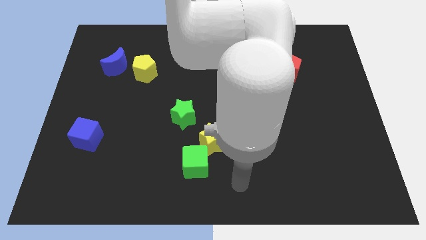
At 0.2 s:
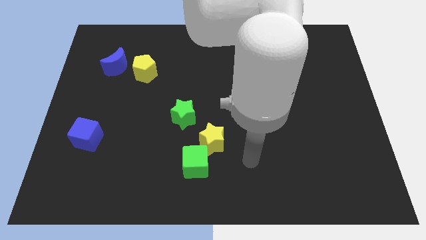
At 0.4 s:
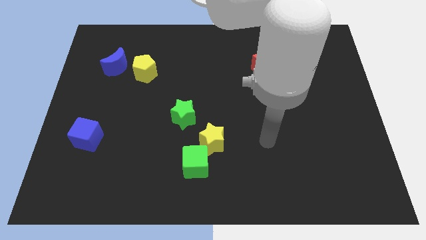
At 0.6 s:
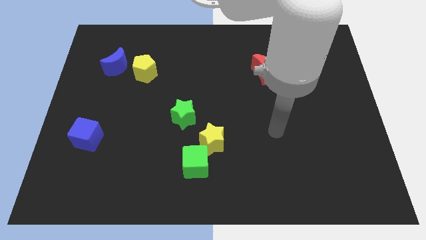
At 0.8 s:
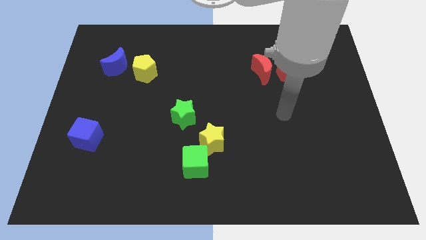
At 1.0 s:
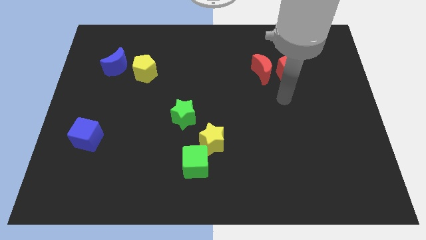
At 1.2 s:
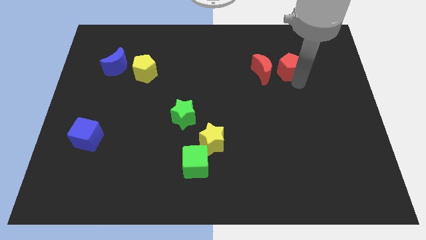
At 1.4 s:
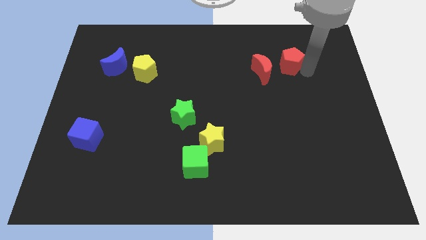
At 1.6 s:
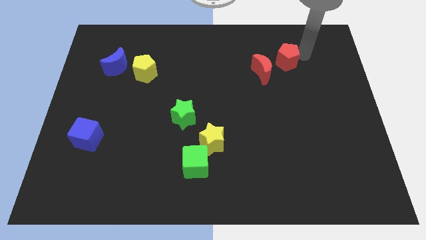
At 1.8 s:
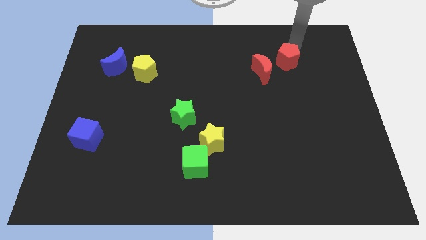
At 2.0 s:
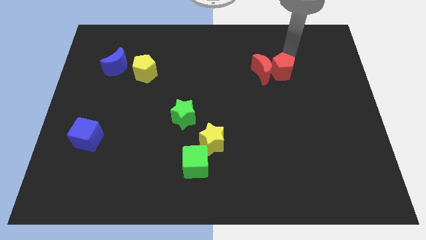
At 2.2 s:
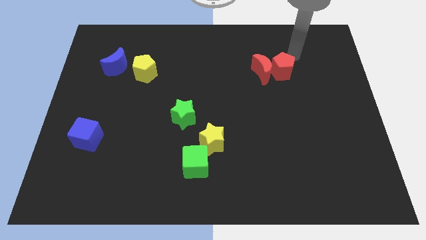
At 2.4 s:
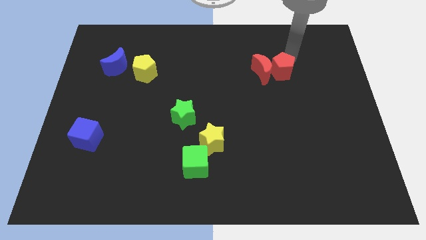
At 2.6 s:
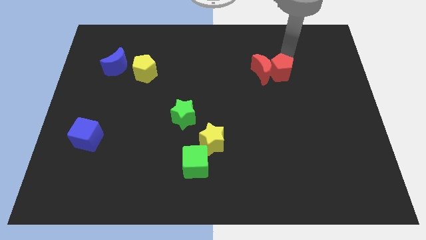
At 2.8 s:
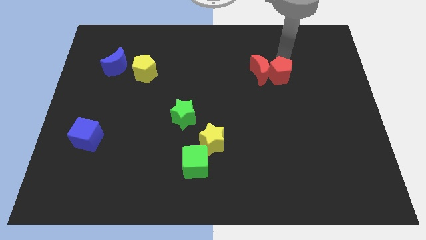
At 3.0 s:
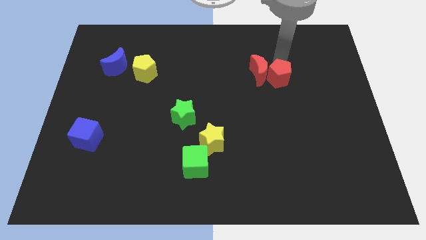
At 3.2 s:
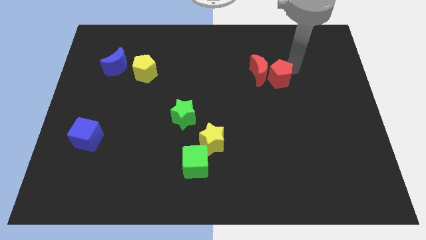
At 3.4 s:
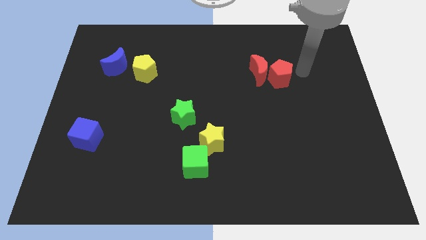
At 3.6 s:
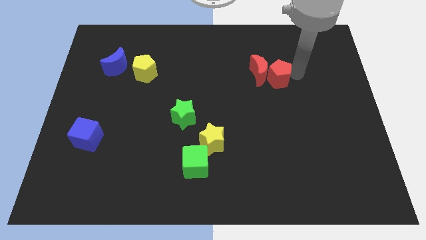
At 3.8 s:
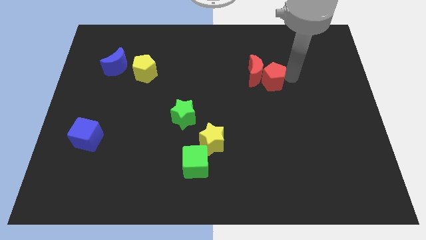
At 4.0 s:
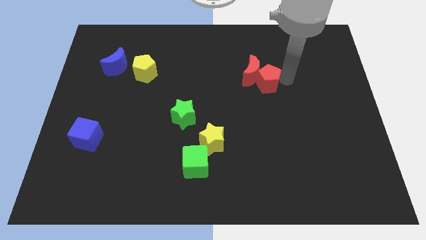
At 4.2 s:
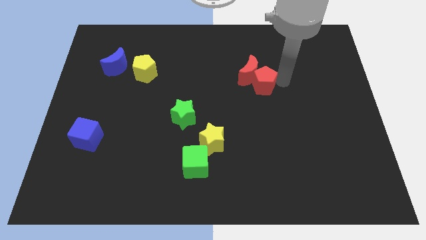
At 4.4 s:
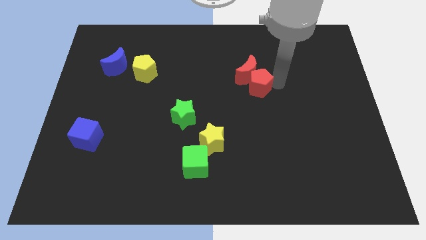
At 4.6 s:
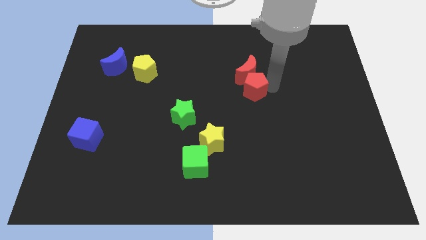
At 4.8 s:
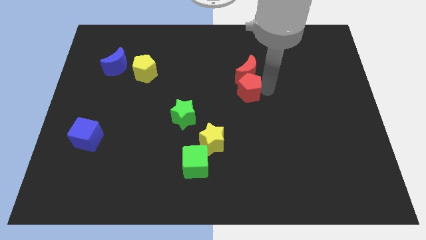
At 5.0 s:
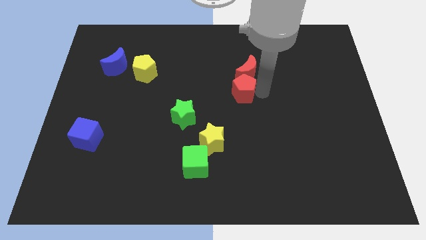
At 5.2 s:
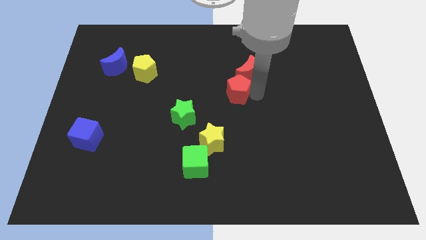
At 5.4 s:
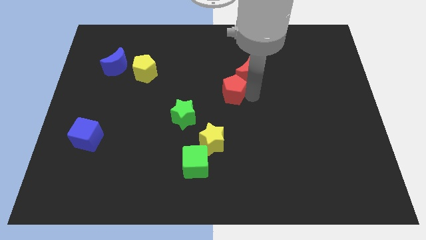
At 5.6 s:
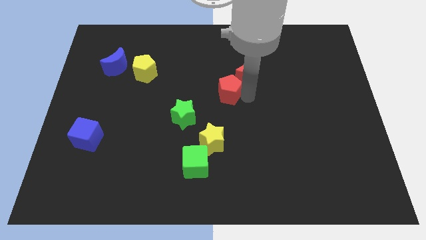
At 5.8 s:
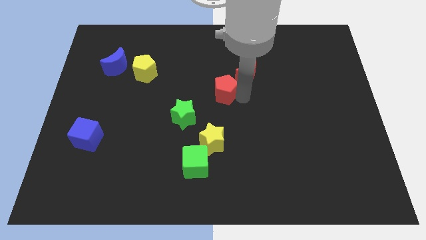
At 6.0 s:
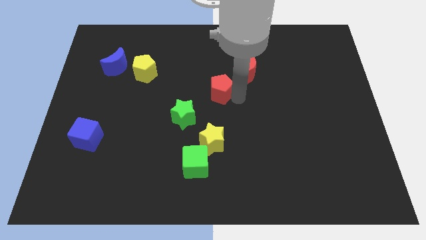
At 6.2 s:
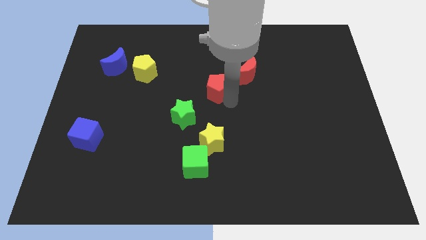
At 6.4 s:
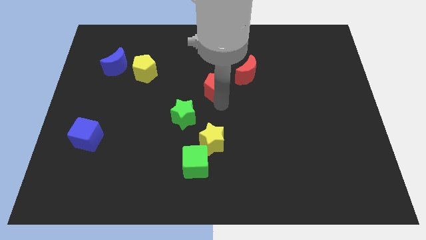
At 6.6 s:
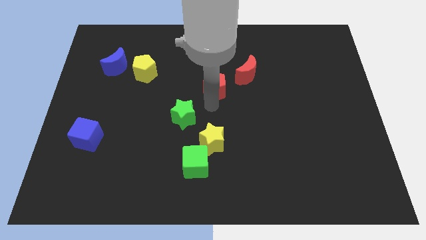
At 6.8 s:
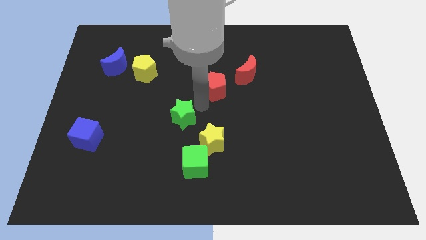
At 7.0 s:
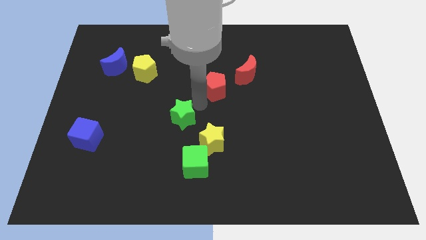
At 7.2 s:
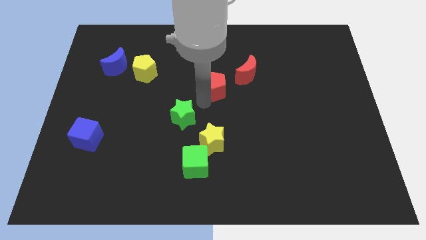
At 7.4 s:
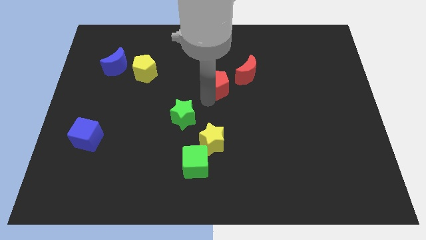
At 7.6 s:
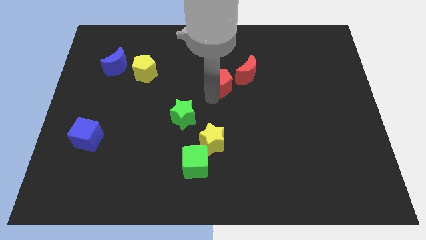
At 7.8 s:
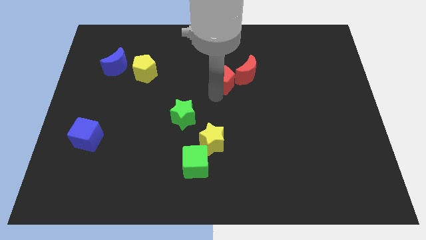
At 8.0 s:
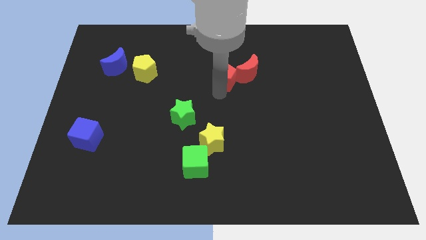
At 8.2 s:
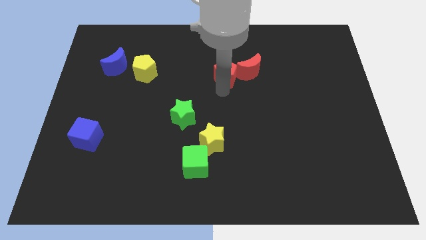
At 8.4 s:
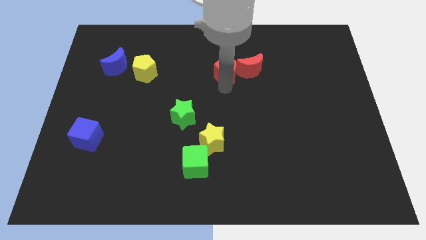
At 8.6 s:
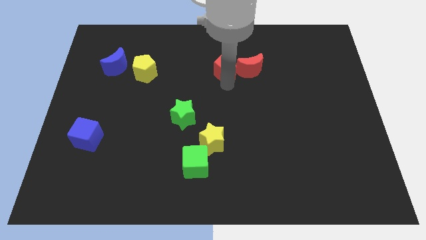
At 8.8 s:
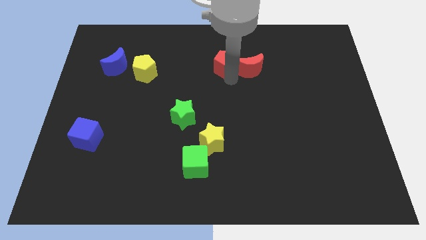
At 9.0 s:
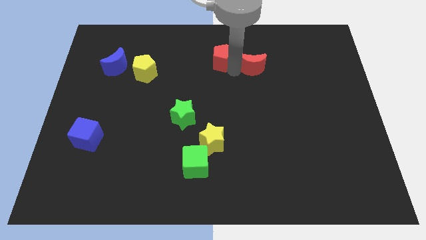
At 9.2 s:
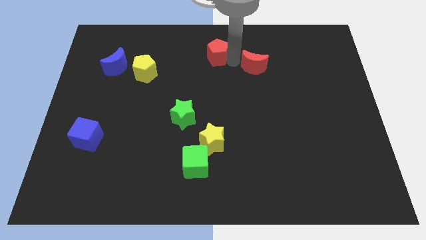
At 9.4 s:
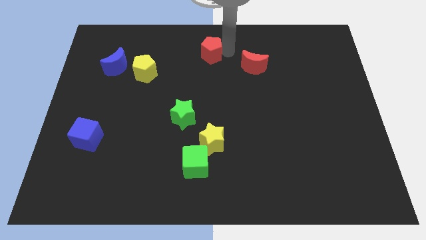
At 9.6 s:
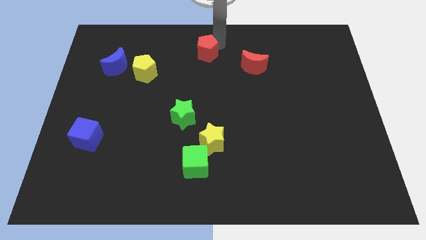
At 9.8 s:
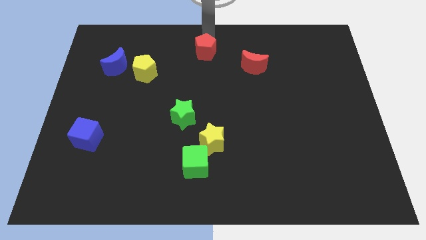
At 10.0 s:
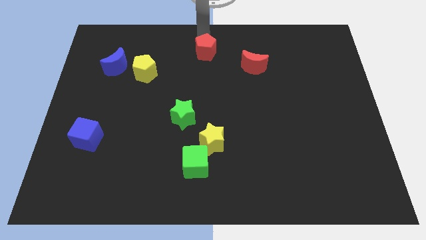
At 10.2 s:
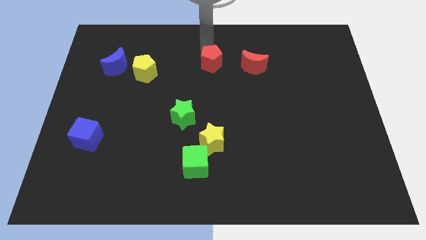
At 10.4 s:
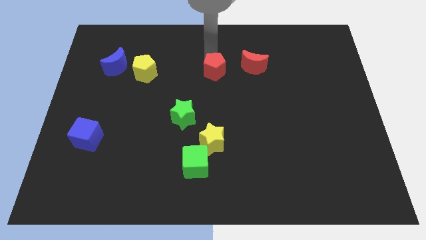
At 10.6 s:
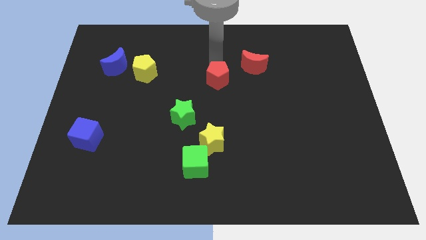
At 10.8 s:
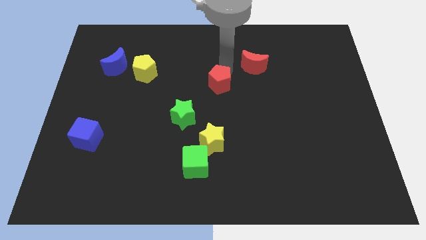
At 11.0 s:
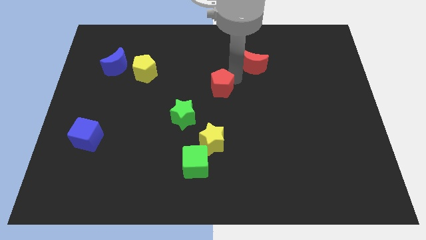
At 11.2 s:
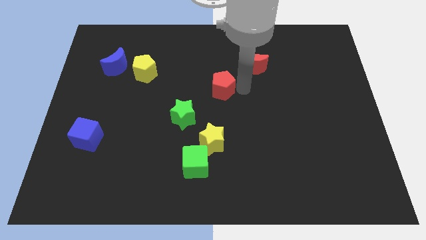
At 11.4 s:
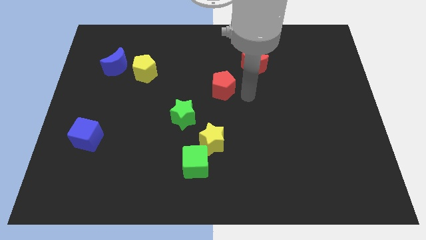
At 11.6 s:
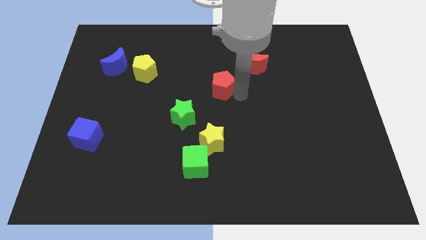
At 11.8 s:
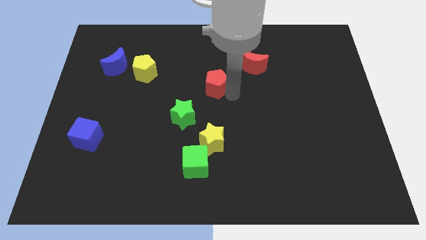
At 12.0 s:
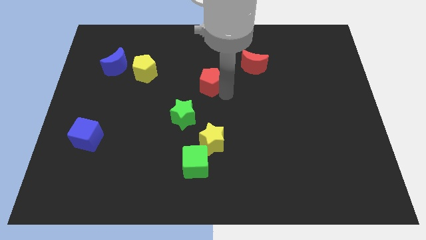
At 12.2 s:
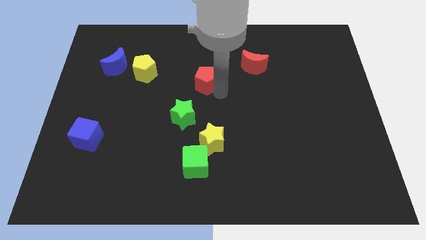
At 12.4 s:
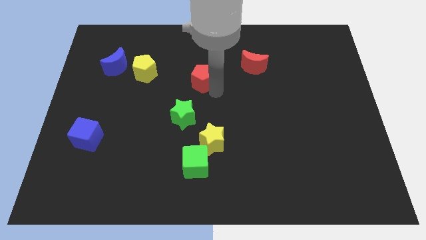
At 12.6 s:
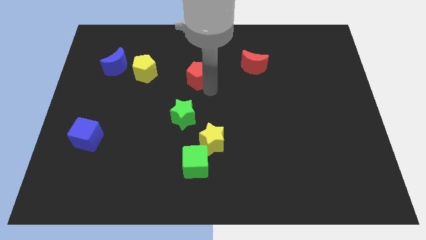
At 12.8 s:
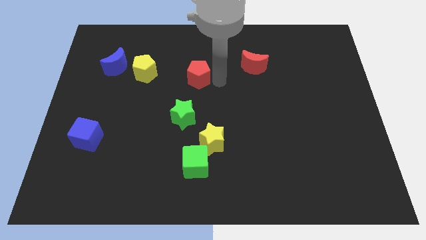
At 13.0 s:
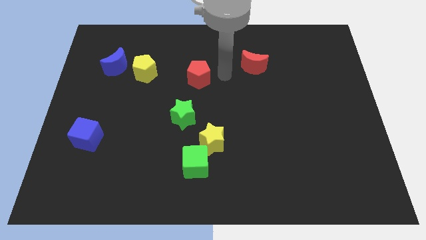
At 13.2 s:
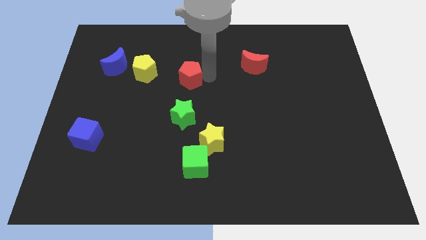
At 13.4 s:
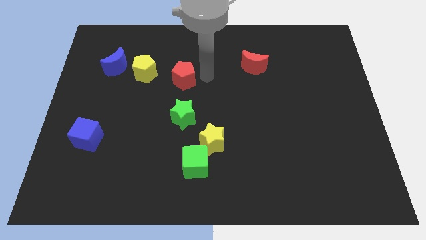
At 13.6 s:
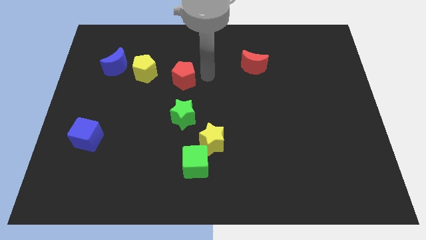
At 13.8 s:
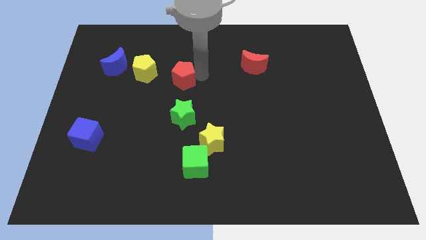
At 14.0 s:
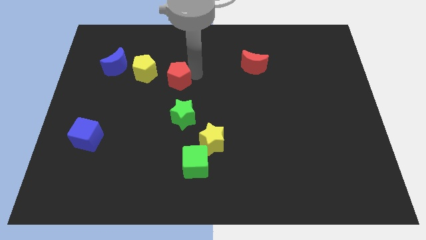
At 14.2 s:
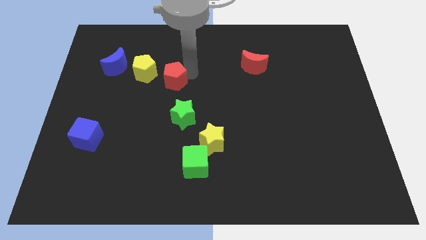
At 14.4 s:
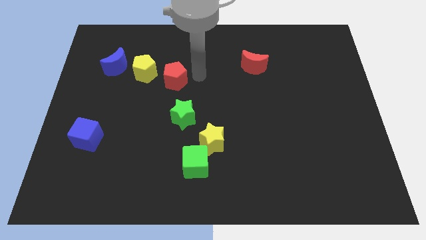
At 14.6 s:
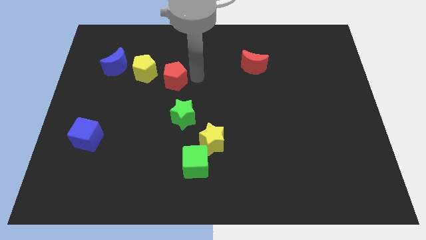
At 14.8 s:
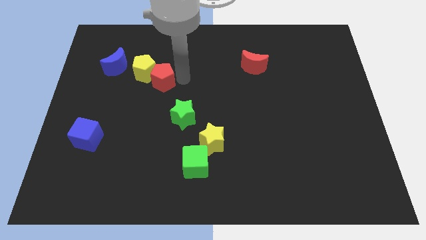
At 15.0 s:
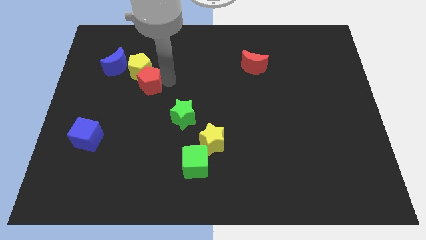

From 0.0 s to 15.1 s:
move the red pentagon to the bottom right of the blue moon
